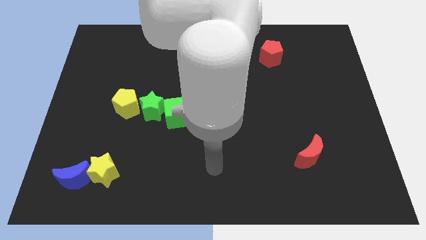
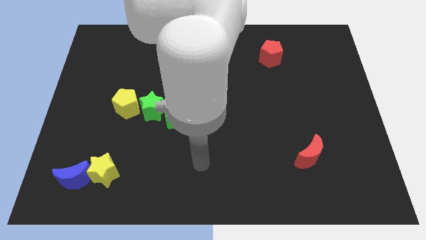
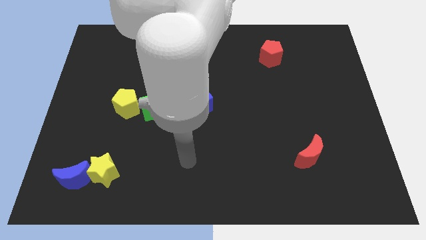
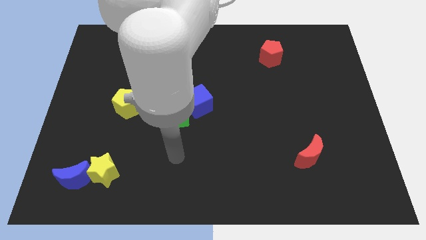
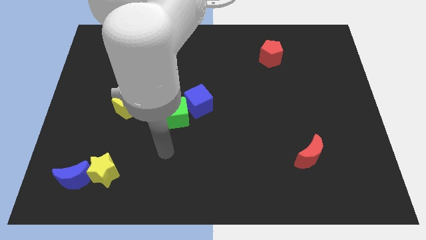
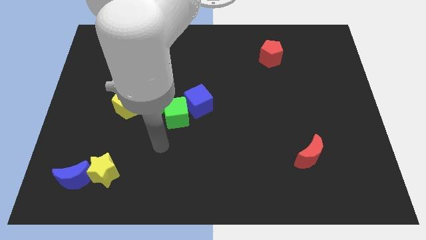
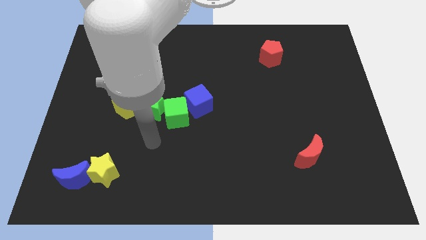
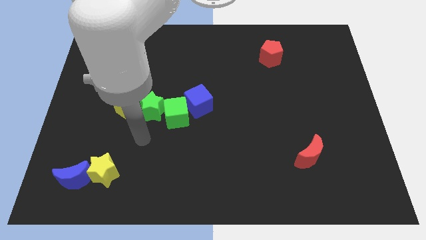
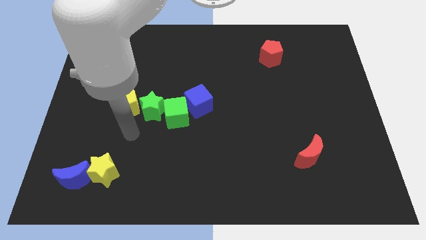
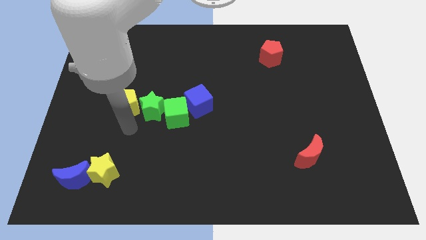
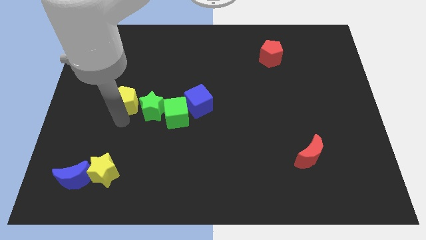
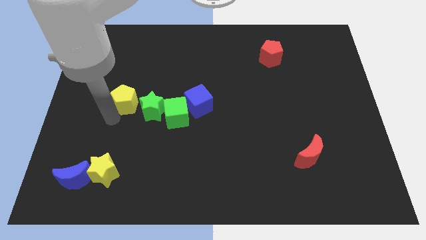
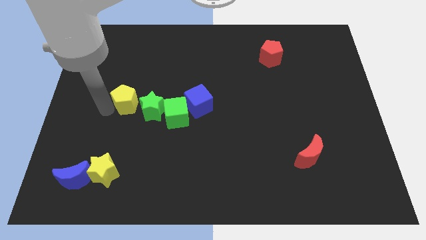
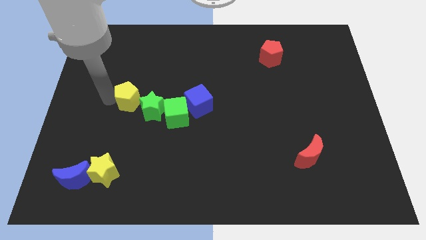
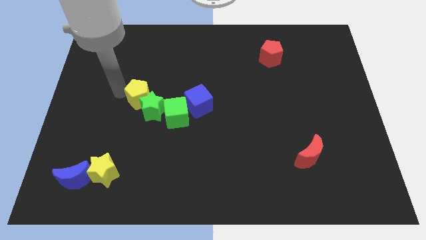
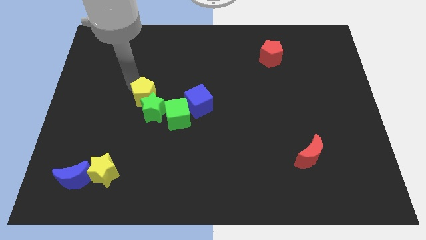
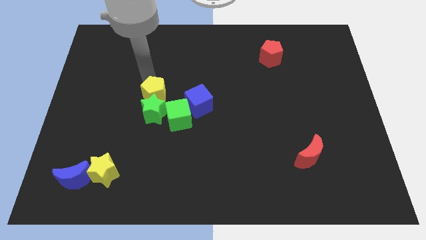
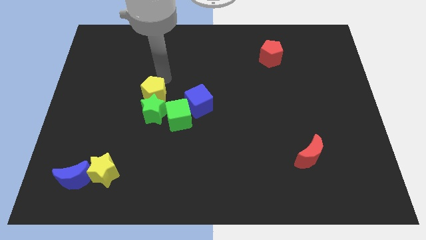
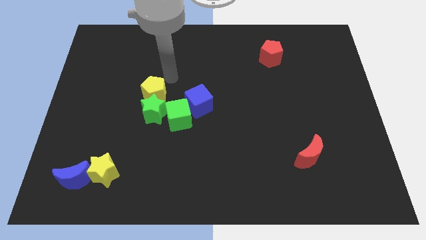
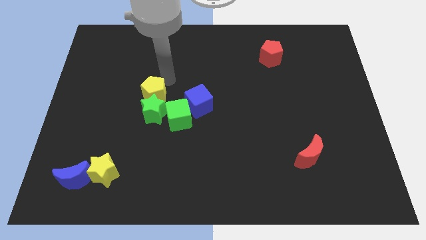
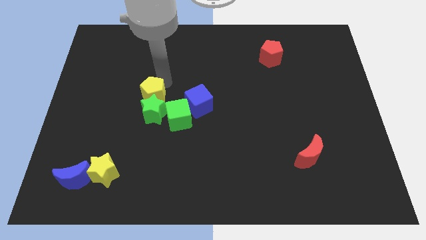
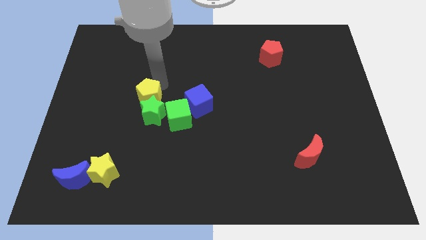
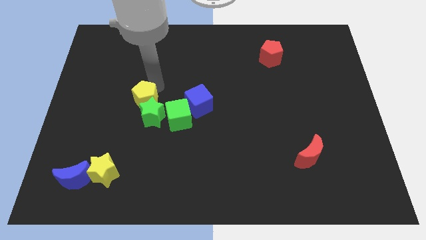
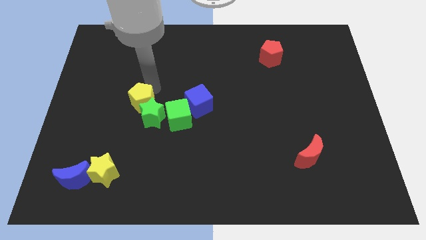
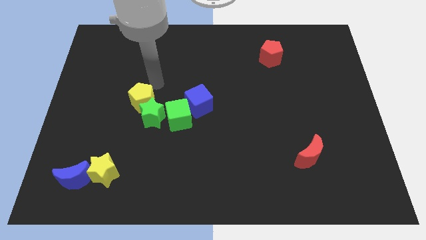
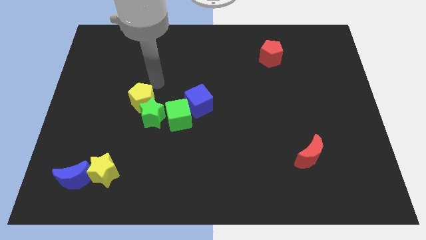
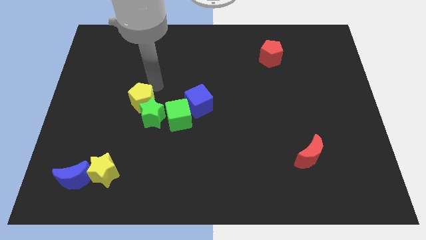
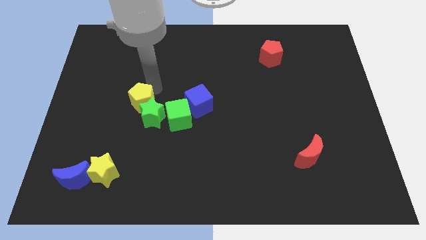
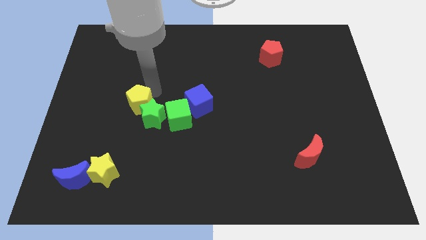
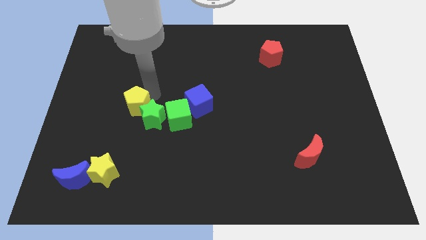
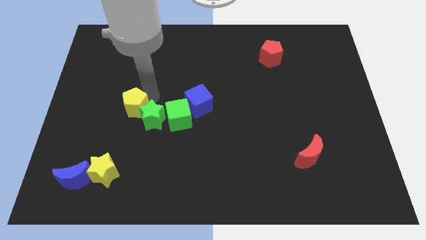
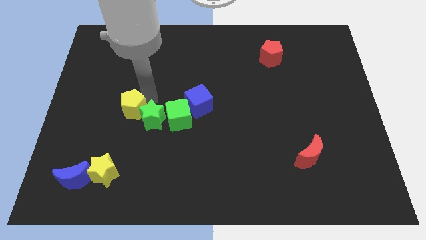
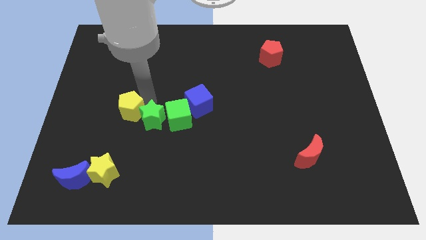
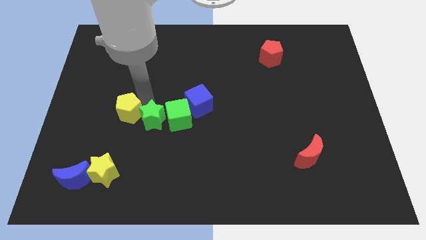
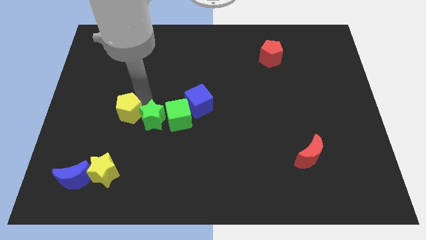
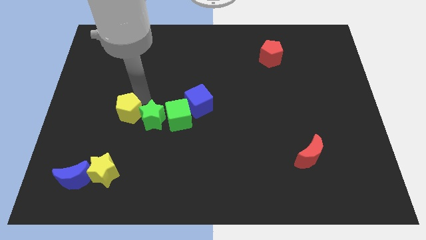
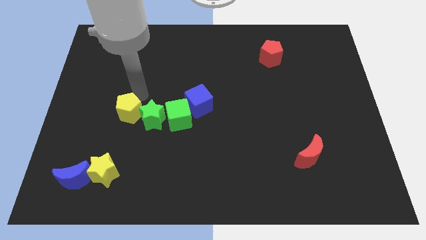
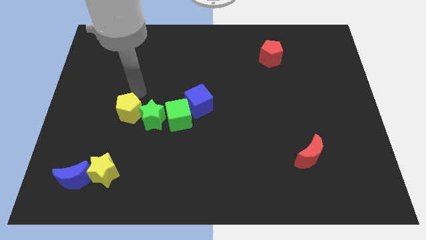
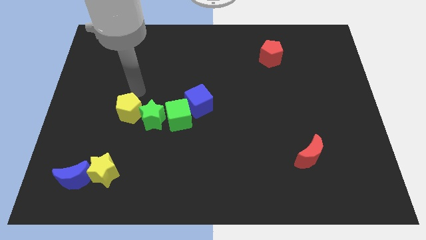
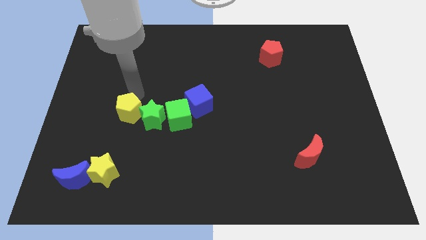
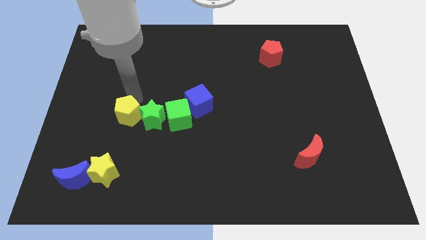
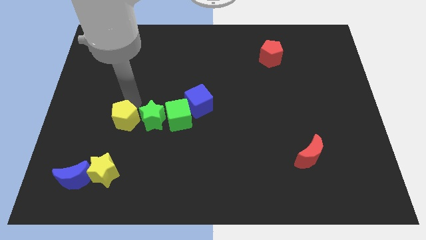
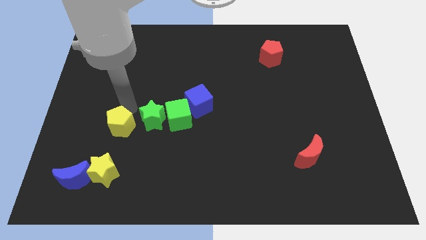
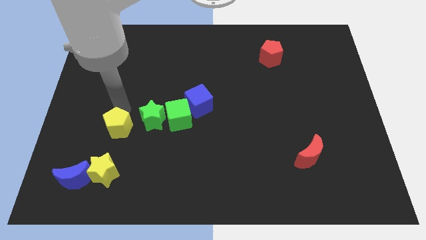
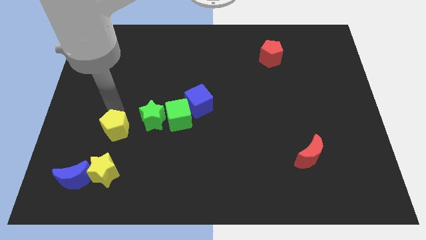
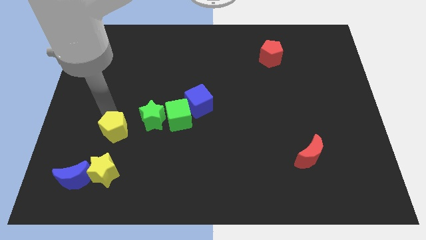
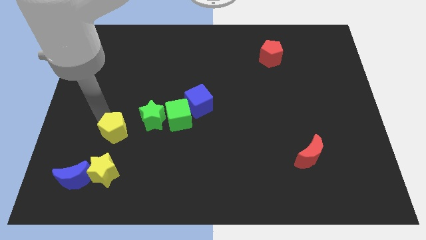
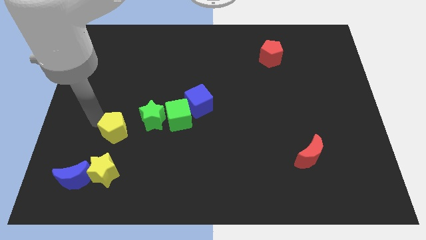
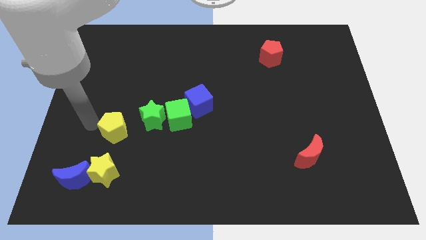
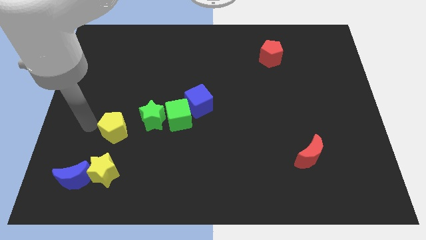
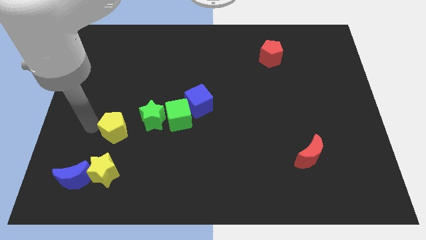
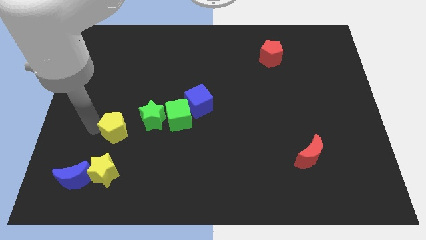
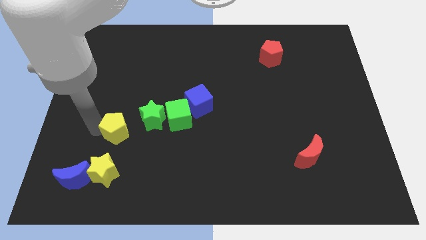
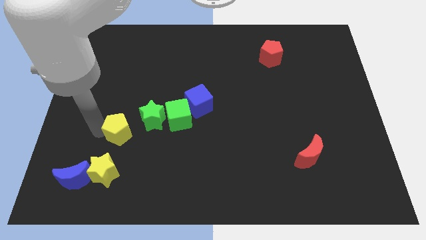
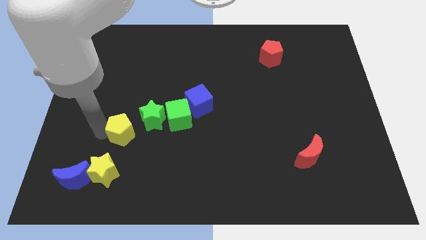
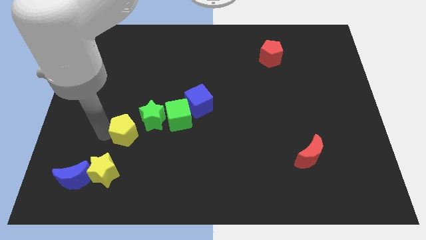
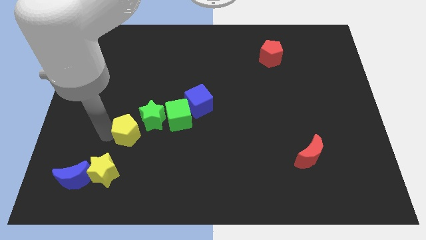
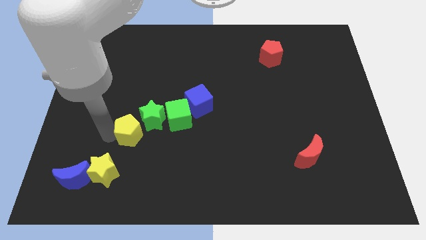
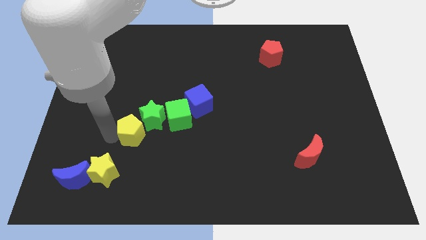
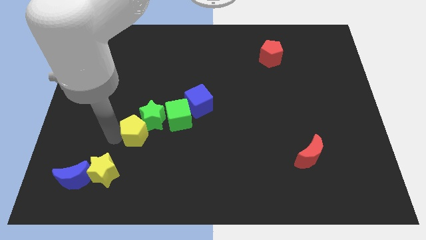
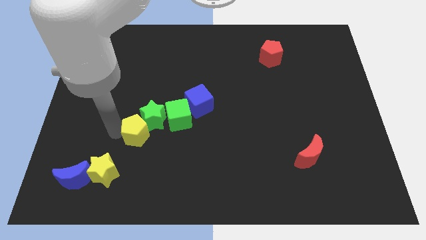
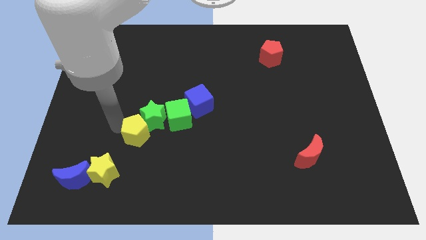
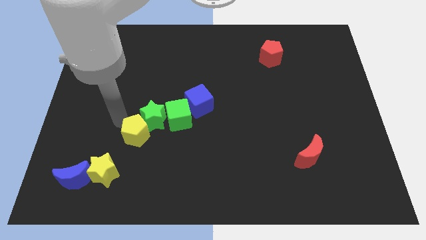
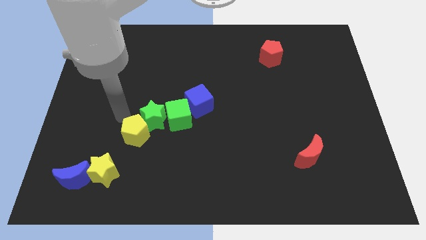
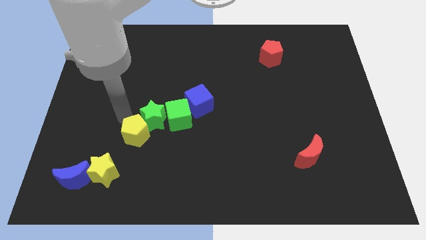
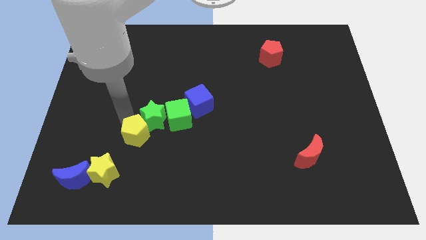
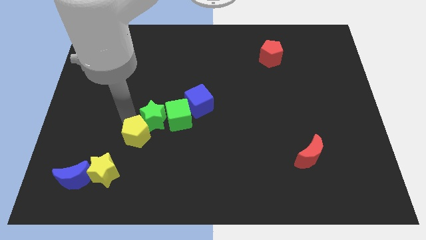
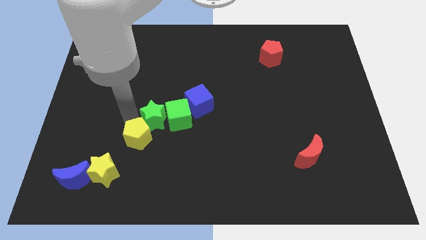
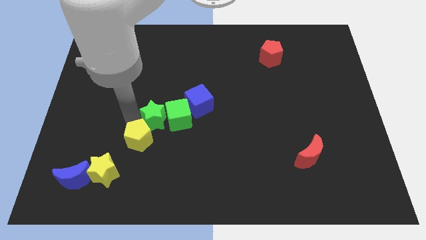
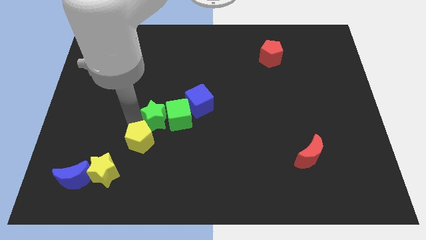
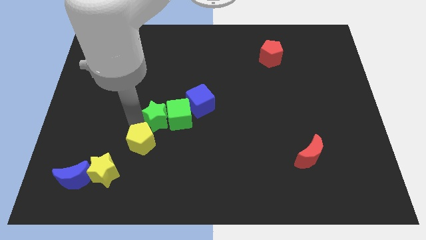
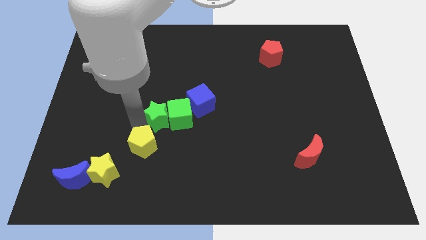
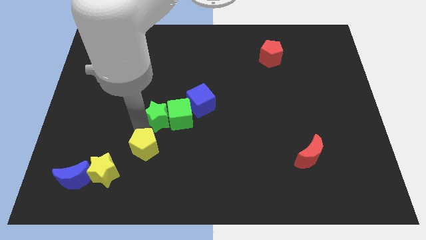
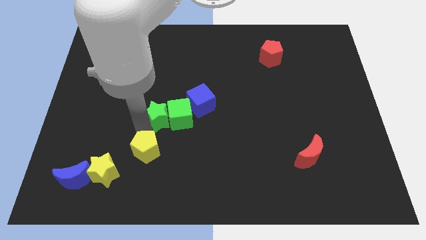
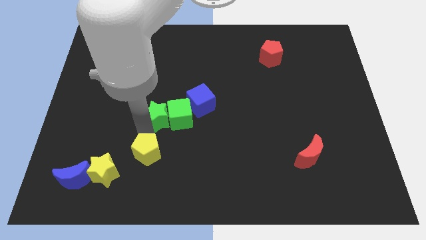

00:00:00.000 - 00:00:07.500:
put the yellow pentagon just right of the yellow star
